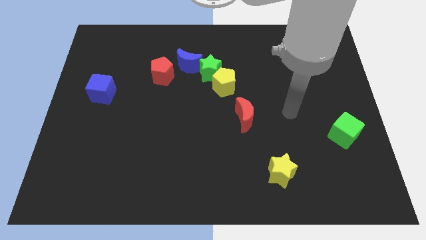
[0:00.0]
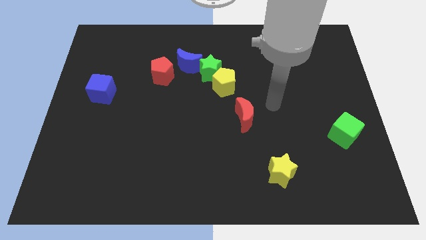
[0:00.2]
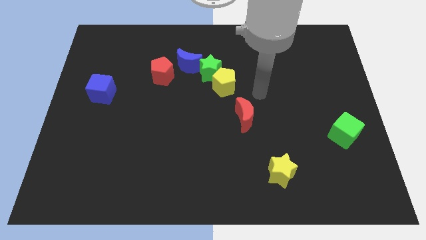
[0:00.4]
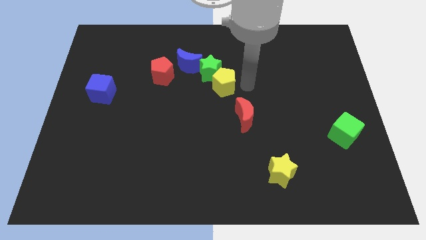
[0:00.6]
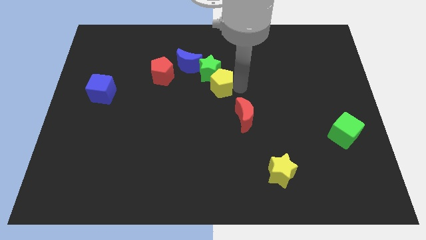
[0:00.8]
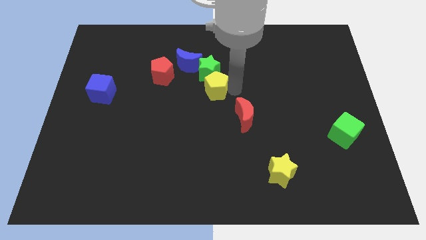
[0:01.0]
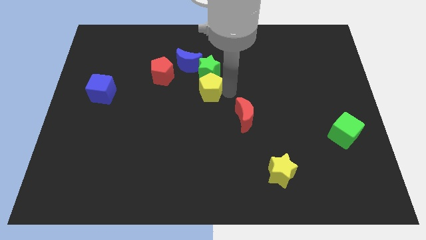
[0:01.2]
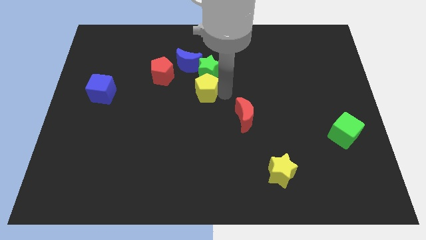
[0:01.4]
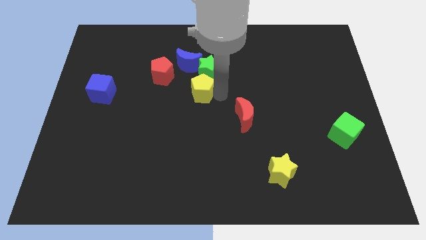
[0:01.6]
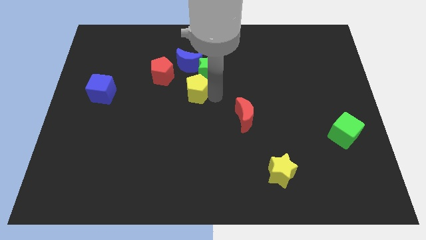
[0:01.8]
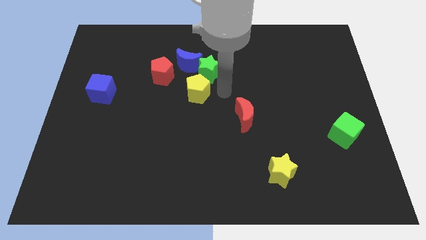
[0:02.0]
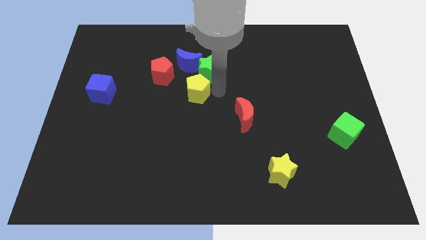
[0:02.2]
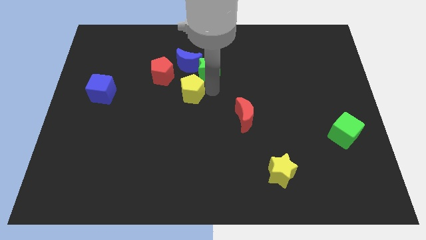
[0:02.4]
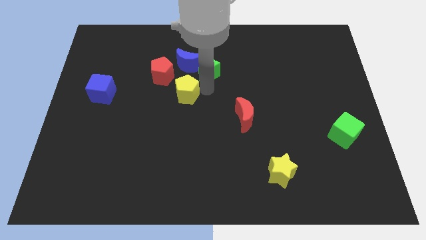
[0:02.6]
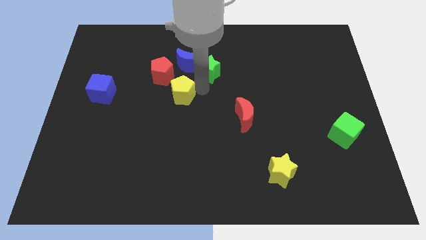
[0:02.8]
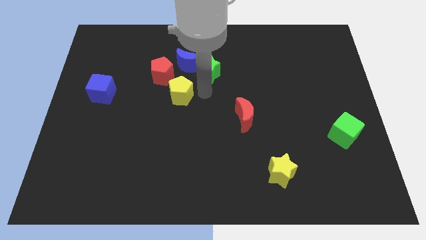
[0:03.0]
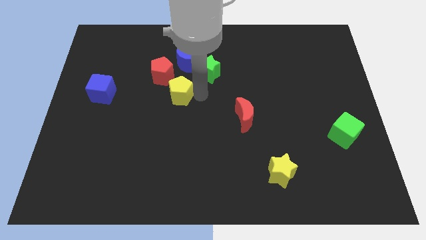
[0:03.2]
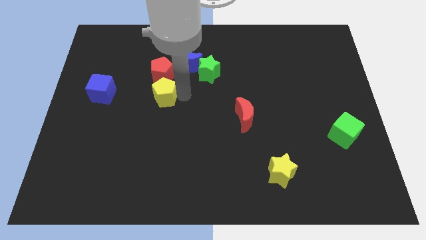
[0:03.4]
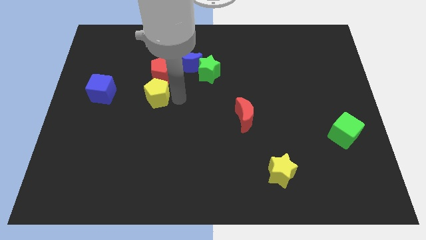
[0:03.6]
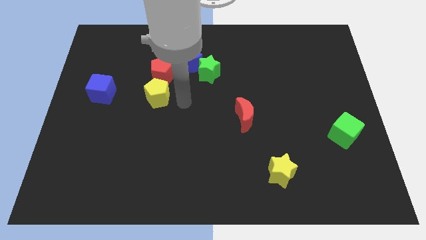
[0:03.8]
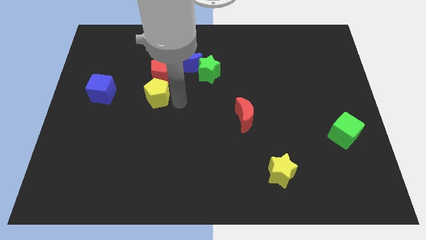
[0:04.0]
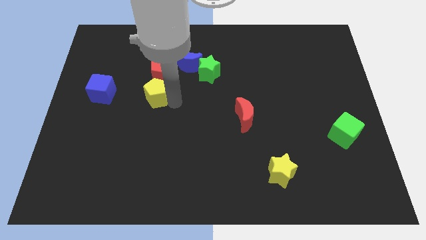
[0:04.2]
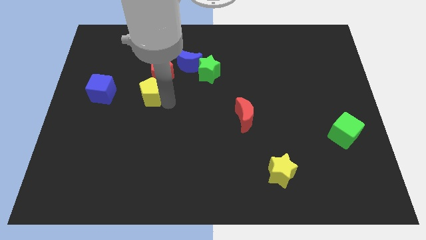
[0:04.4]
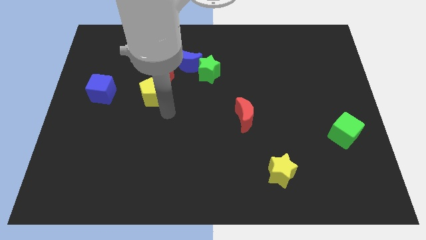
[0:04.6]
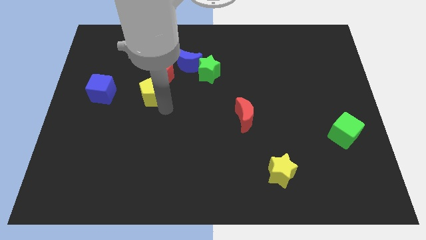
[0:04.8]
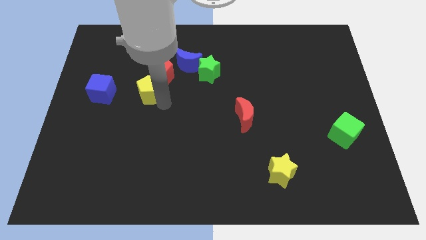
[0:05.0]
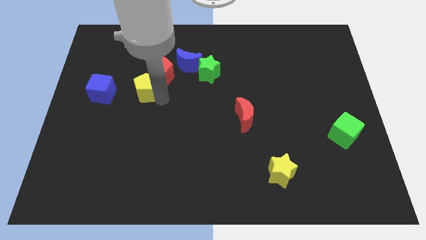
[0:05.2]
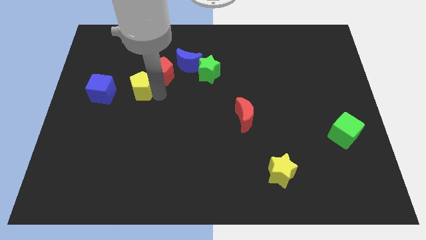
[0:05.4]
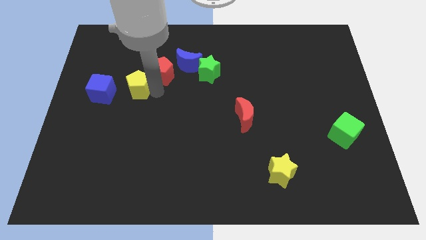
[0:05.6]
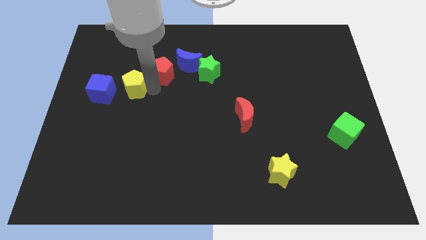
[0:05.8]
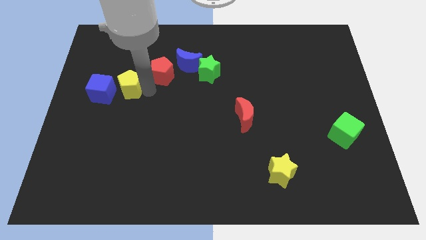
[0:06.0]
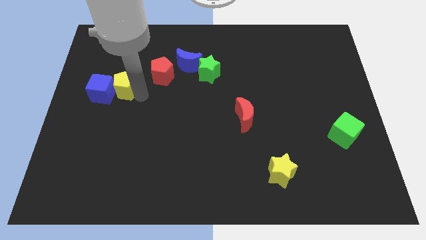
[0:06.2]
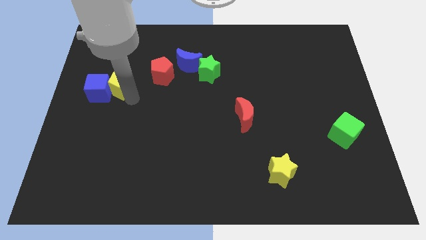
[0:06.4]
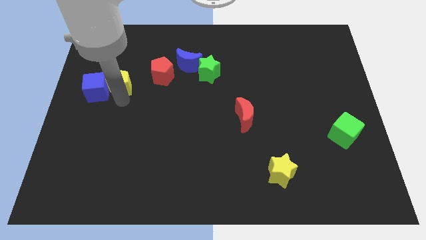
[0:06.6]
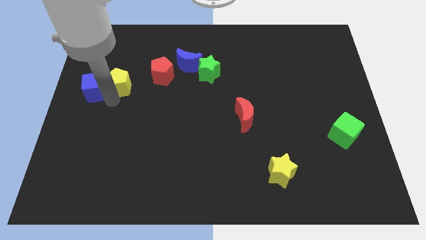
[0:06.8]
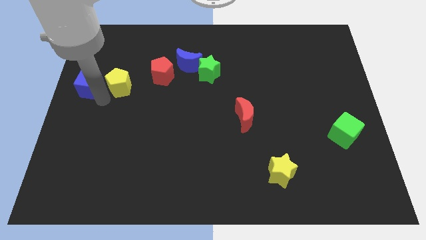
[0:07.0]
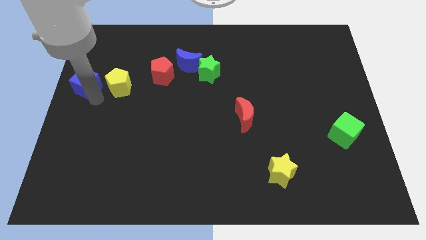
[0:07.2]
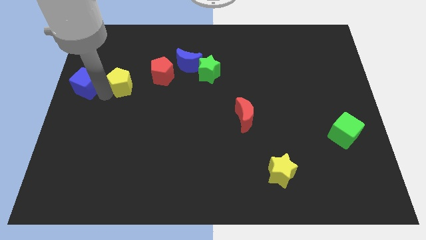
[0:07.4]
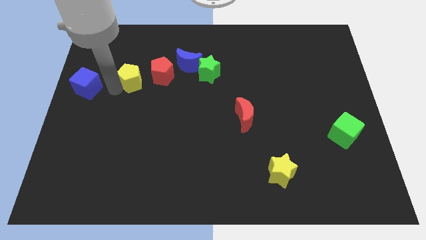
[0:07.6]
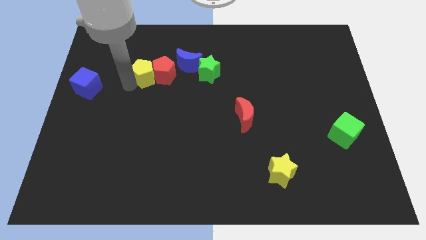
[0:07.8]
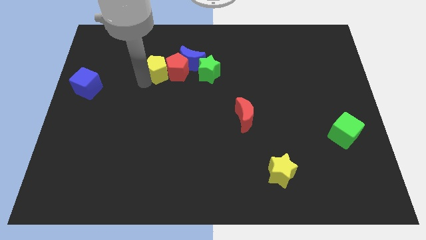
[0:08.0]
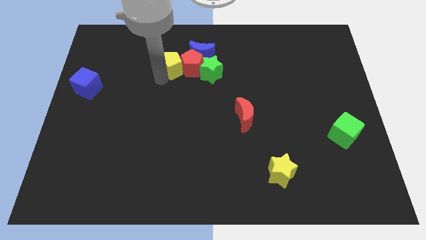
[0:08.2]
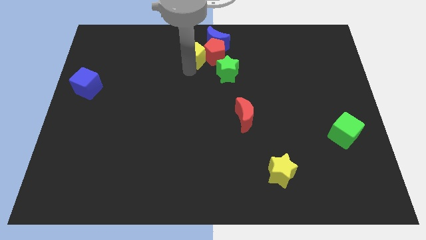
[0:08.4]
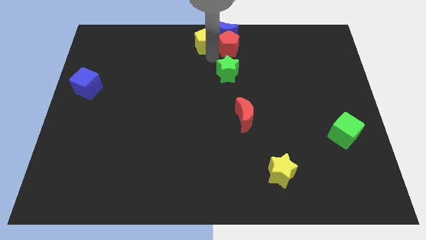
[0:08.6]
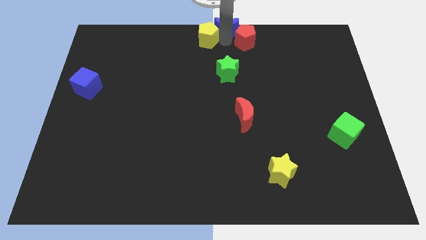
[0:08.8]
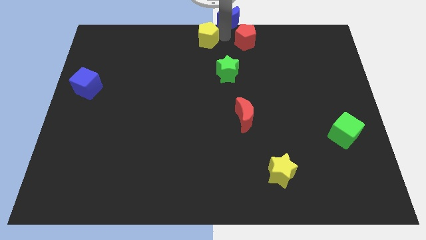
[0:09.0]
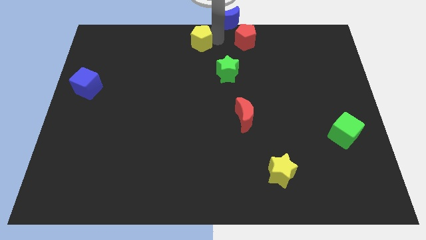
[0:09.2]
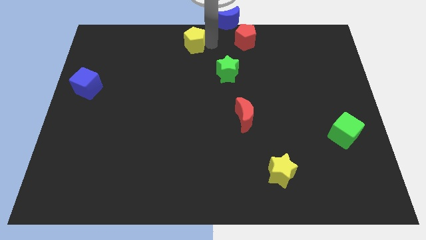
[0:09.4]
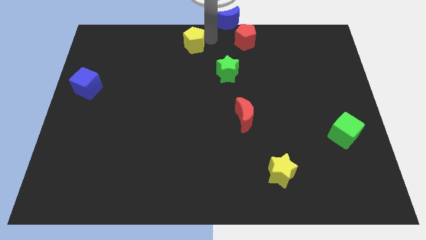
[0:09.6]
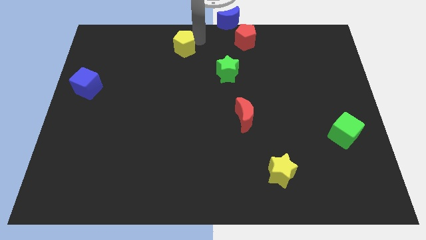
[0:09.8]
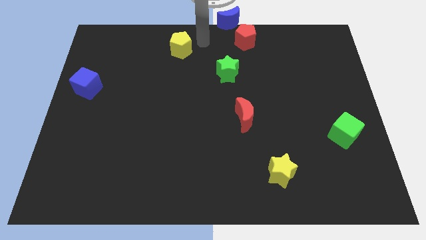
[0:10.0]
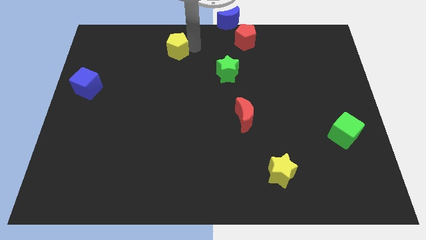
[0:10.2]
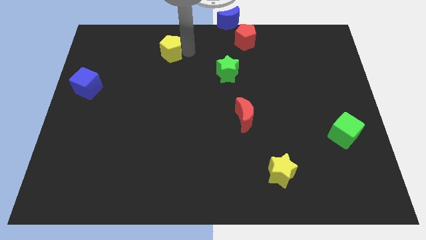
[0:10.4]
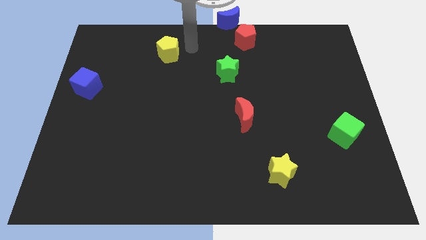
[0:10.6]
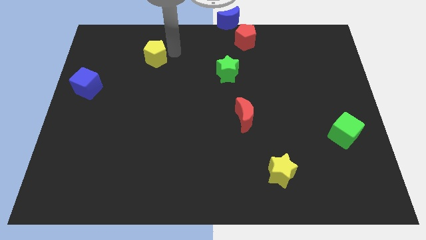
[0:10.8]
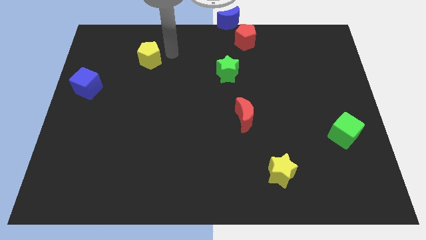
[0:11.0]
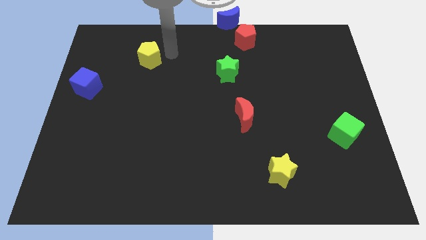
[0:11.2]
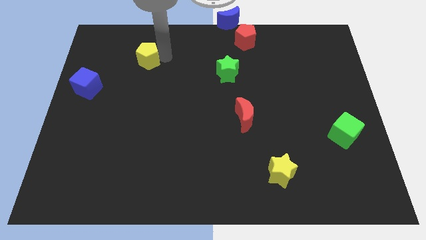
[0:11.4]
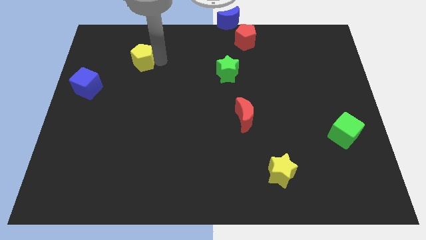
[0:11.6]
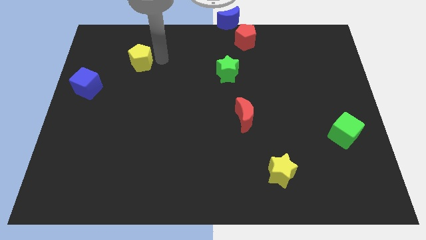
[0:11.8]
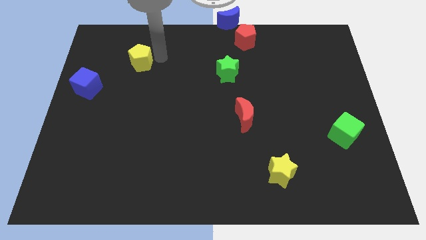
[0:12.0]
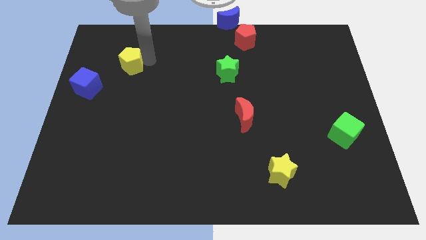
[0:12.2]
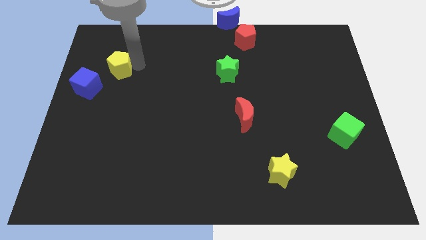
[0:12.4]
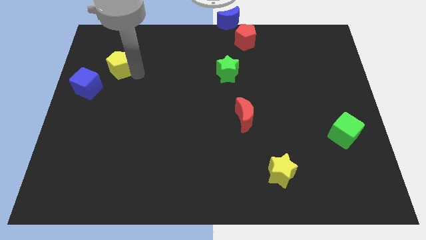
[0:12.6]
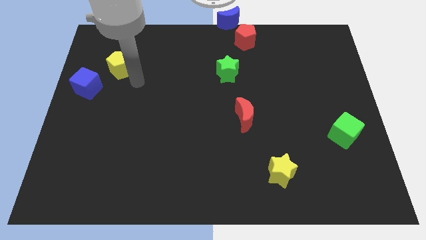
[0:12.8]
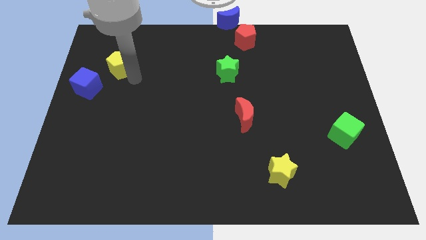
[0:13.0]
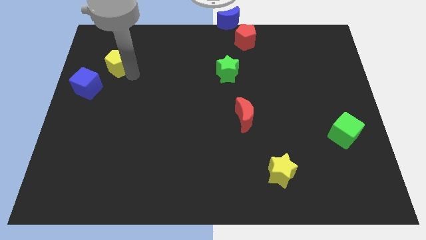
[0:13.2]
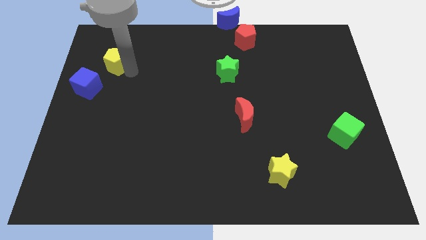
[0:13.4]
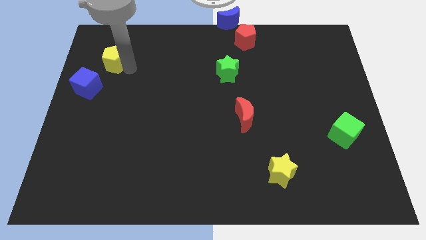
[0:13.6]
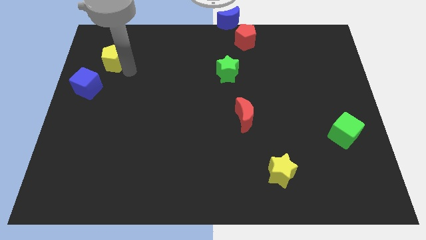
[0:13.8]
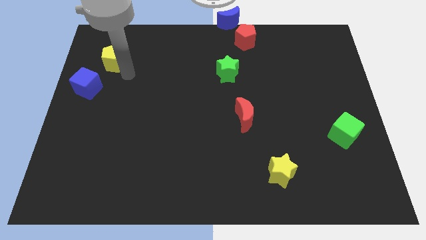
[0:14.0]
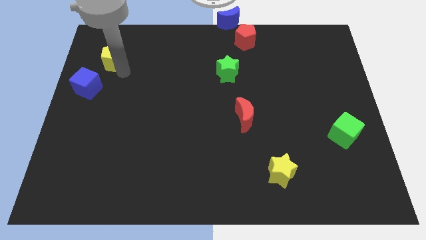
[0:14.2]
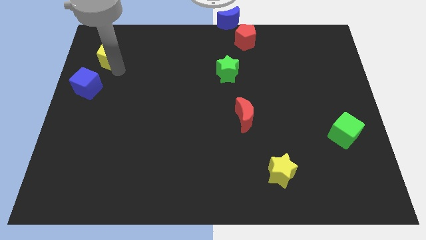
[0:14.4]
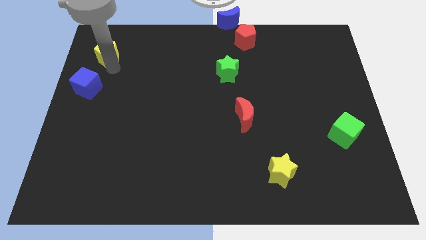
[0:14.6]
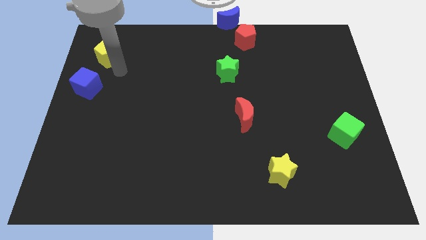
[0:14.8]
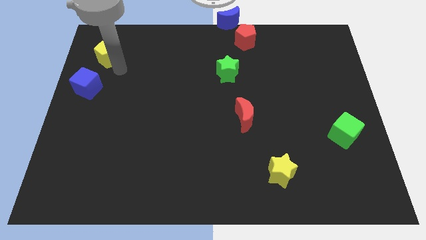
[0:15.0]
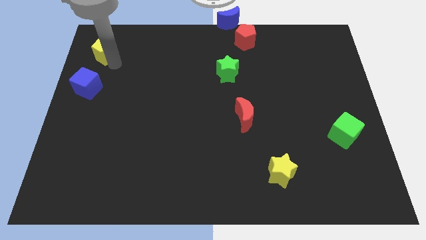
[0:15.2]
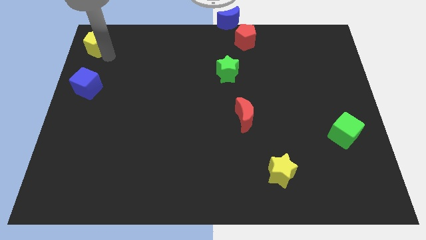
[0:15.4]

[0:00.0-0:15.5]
slide the yellow pentagon to the top left corner
